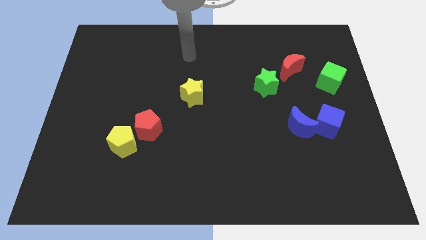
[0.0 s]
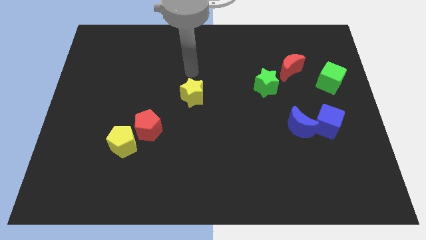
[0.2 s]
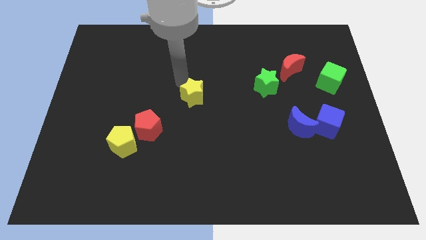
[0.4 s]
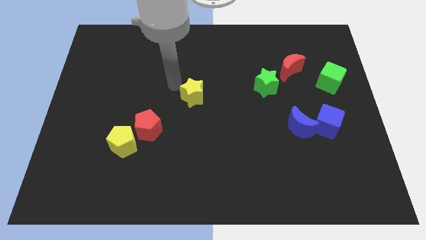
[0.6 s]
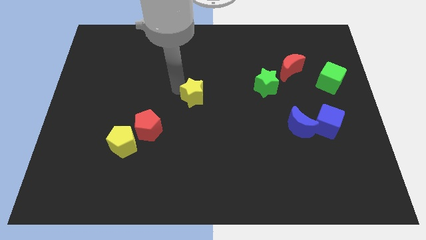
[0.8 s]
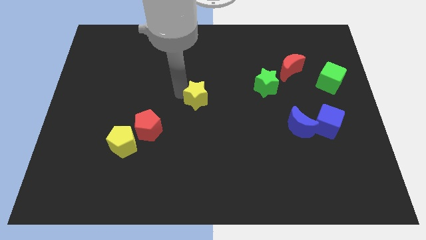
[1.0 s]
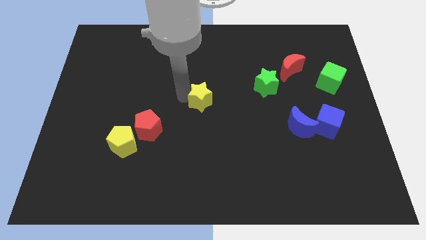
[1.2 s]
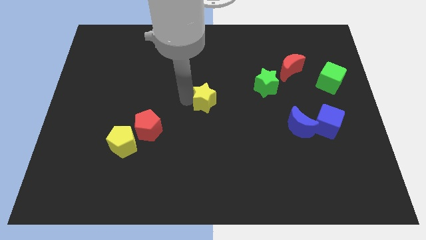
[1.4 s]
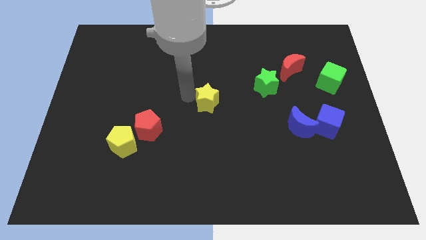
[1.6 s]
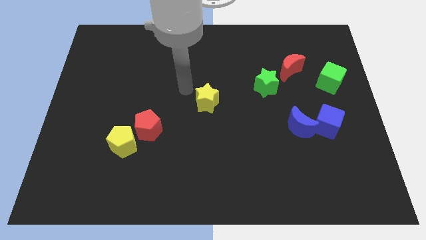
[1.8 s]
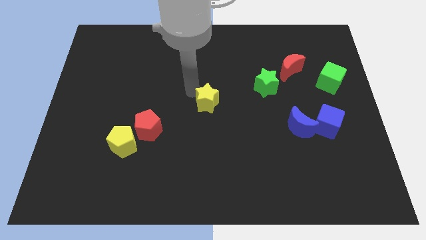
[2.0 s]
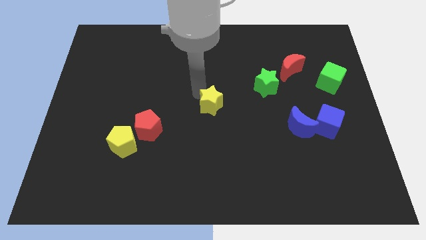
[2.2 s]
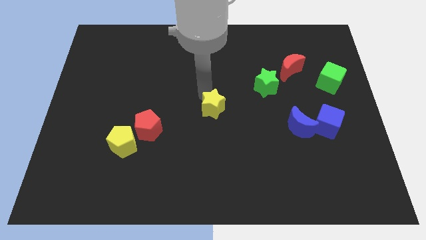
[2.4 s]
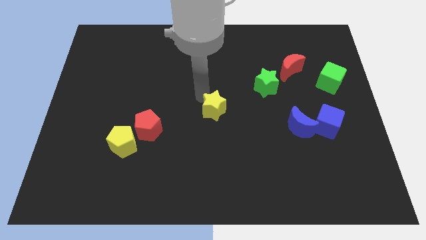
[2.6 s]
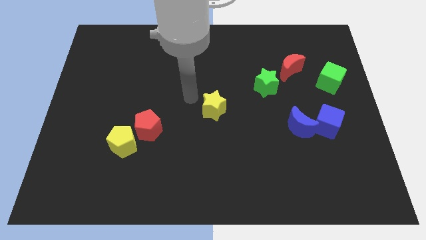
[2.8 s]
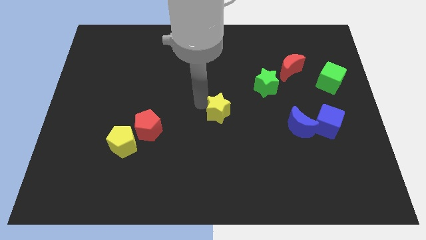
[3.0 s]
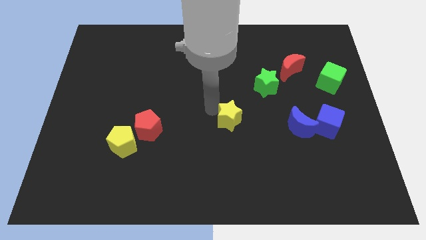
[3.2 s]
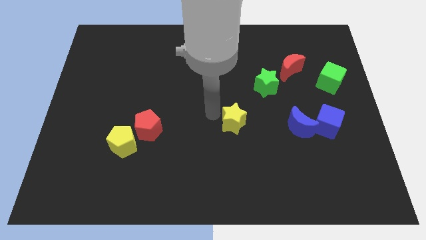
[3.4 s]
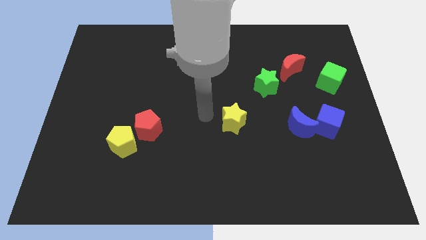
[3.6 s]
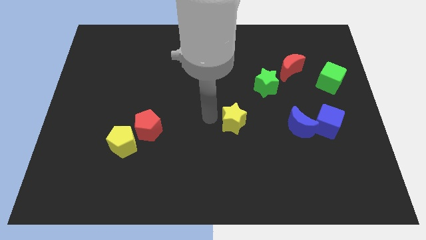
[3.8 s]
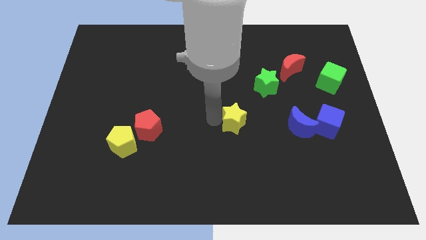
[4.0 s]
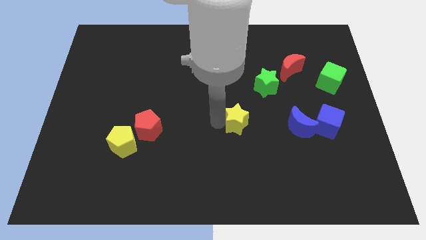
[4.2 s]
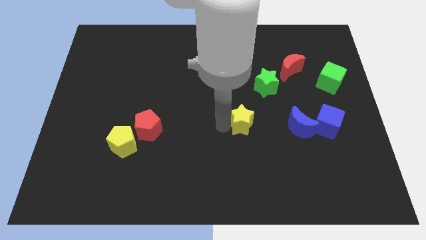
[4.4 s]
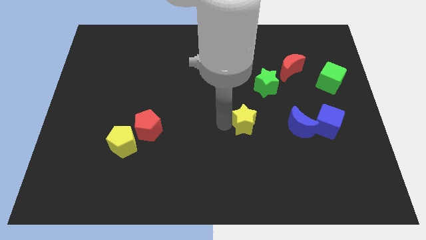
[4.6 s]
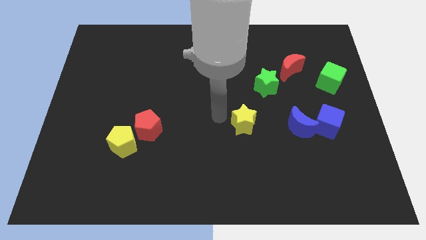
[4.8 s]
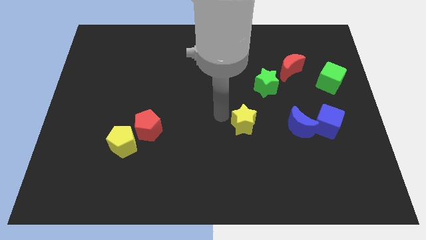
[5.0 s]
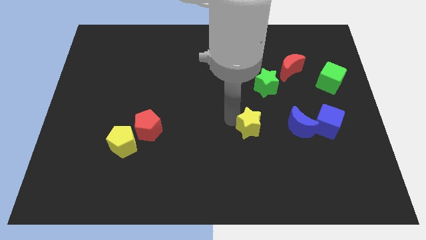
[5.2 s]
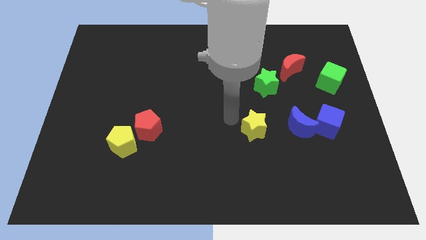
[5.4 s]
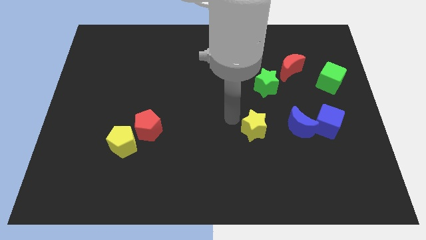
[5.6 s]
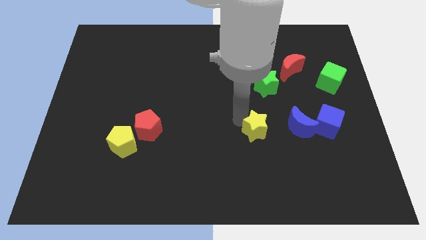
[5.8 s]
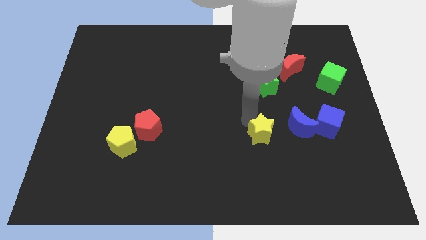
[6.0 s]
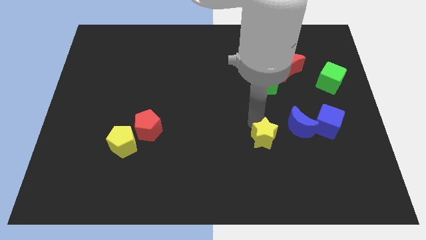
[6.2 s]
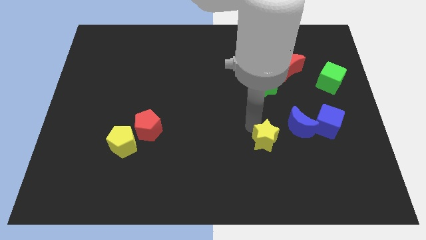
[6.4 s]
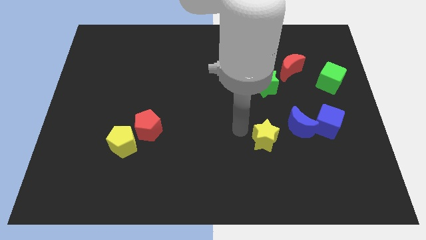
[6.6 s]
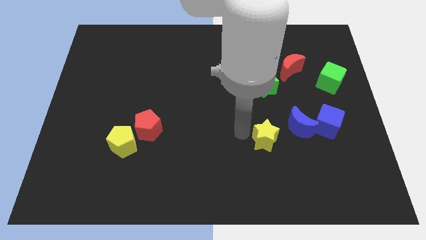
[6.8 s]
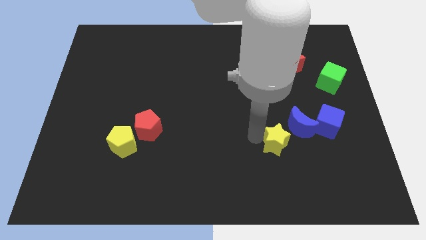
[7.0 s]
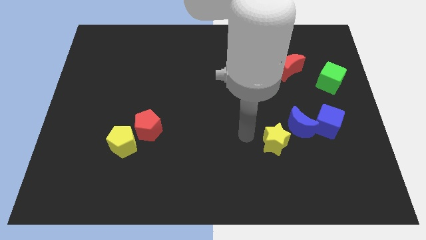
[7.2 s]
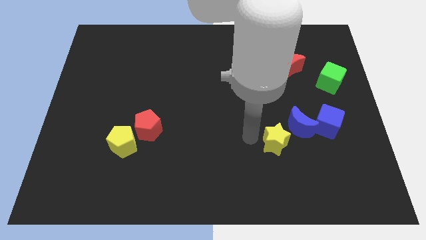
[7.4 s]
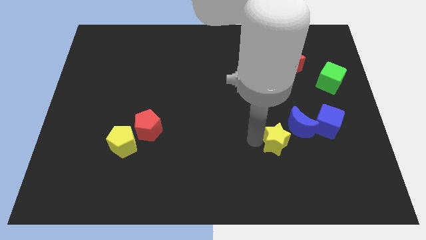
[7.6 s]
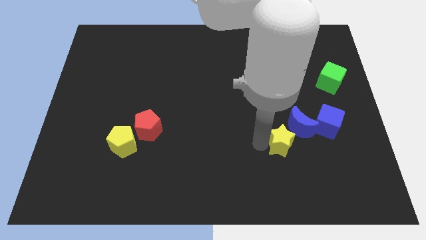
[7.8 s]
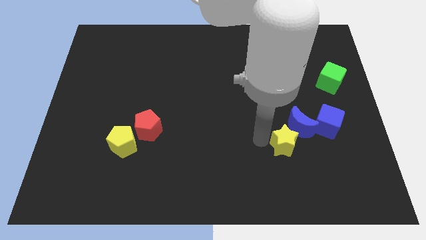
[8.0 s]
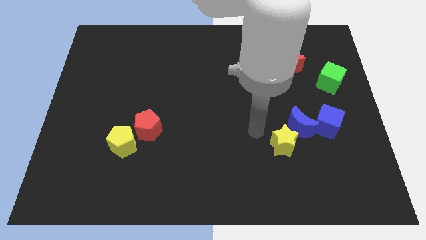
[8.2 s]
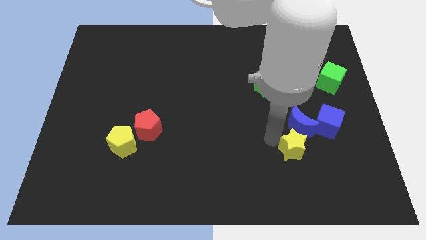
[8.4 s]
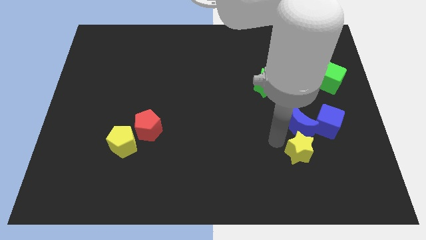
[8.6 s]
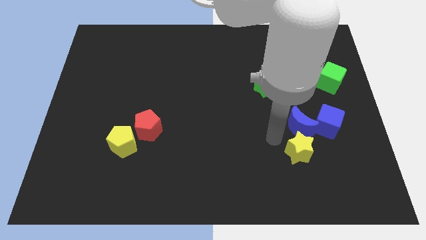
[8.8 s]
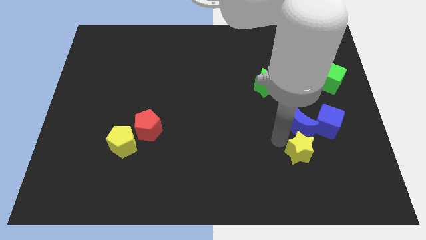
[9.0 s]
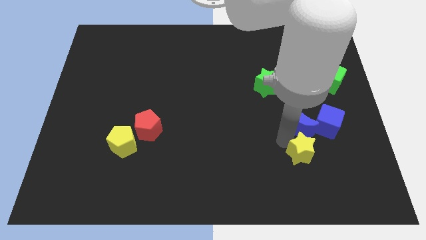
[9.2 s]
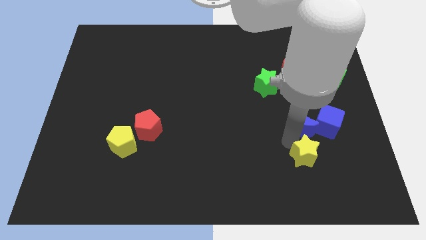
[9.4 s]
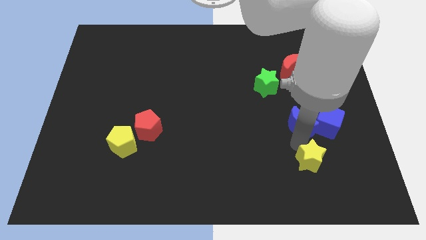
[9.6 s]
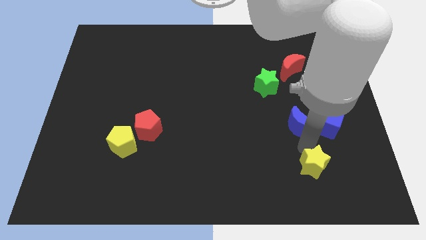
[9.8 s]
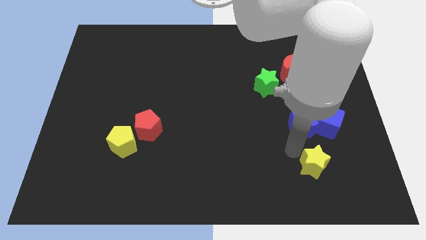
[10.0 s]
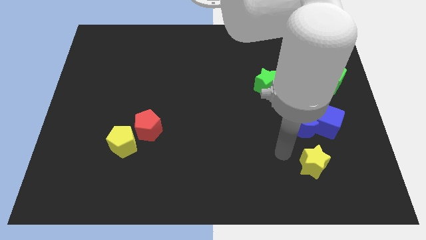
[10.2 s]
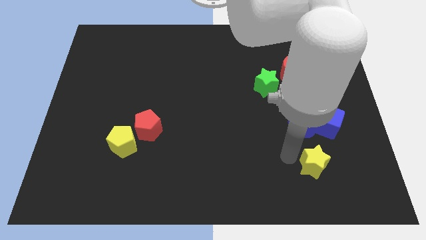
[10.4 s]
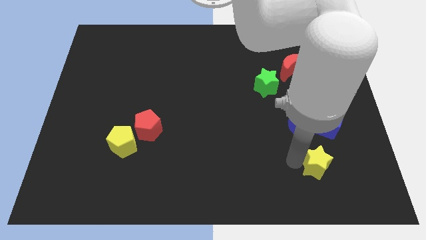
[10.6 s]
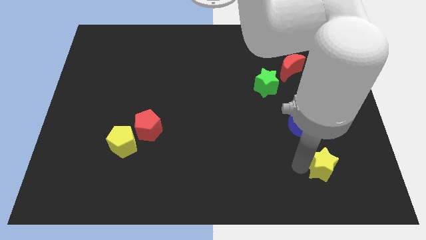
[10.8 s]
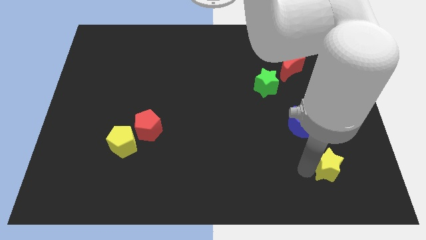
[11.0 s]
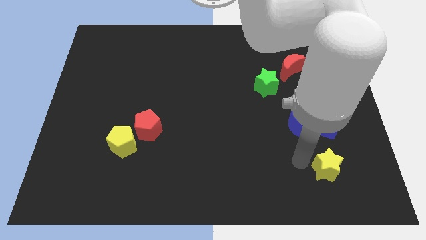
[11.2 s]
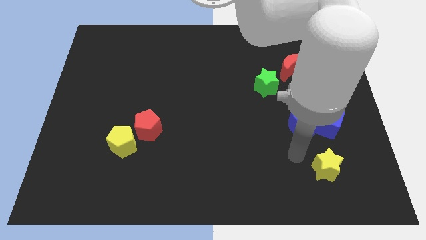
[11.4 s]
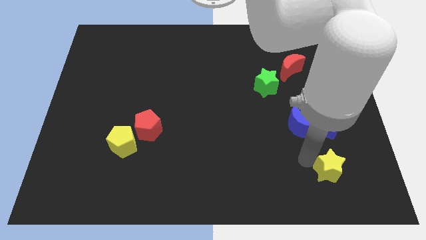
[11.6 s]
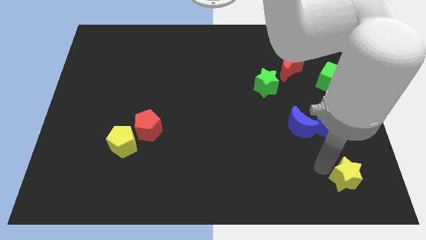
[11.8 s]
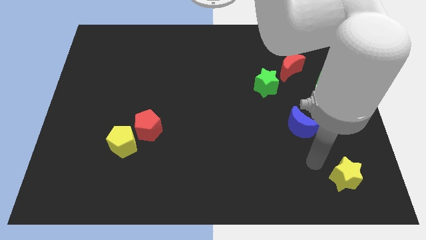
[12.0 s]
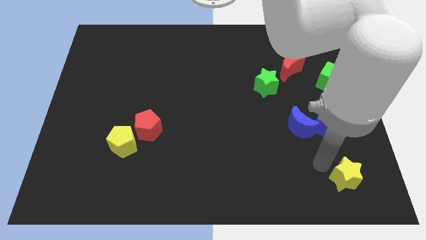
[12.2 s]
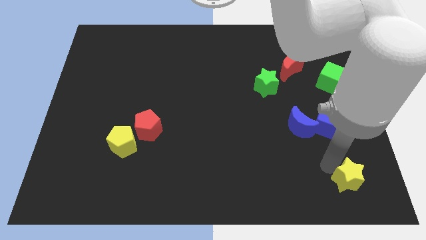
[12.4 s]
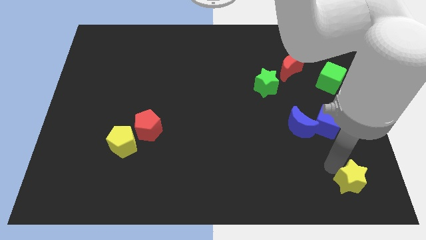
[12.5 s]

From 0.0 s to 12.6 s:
push the yellow star to the bottom right

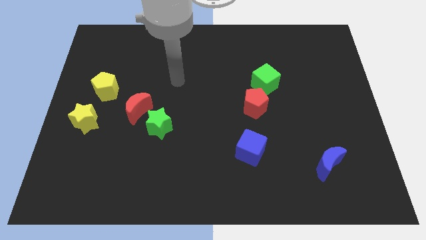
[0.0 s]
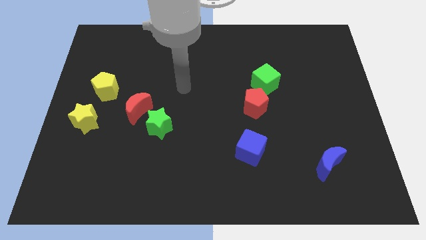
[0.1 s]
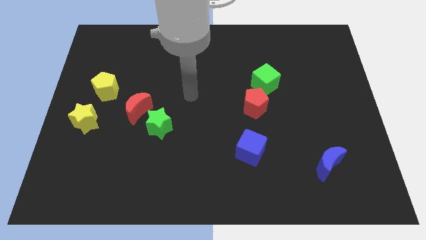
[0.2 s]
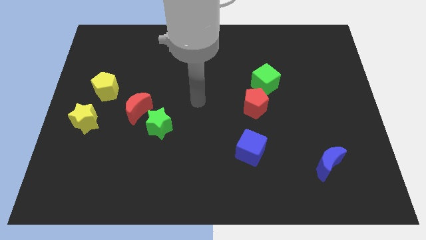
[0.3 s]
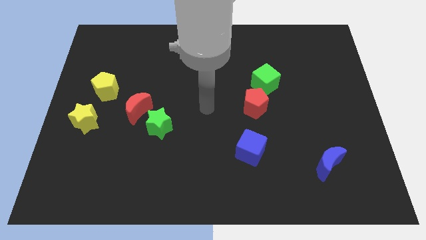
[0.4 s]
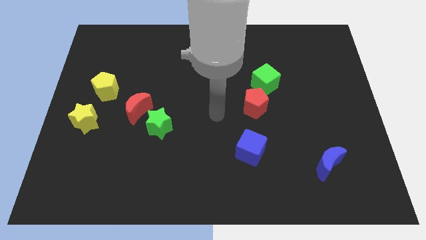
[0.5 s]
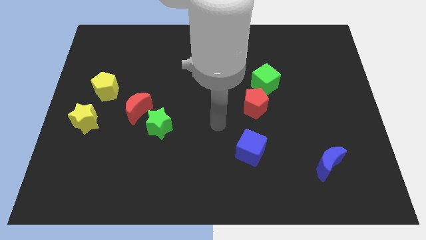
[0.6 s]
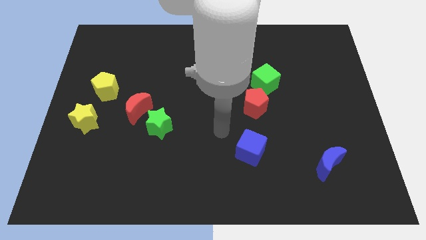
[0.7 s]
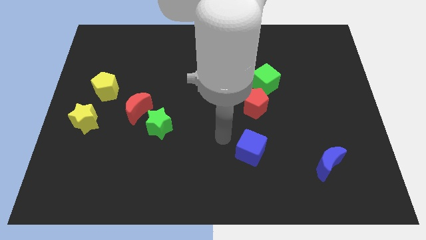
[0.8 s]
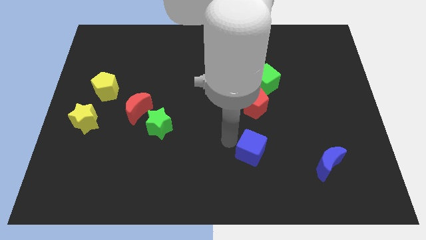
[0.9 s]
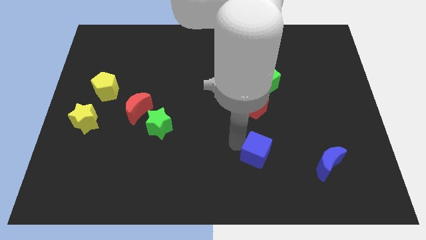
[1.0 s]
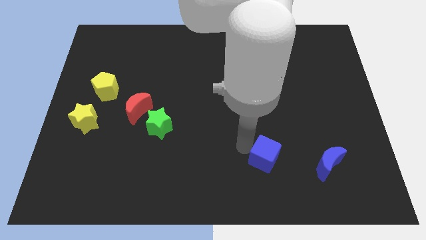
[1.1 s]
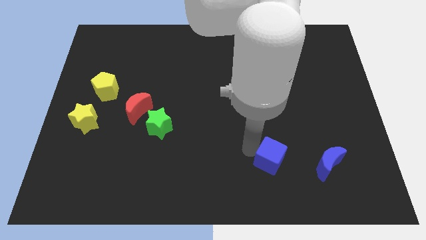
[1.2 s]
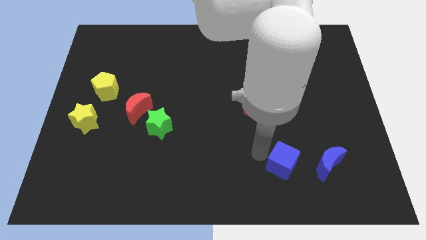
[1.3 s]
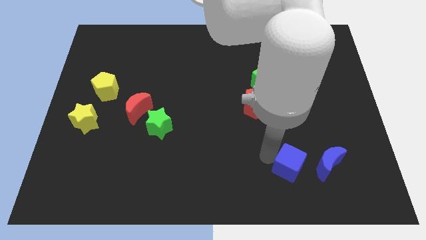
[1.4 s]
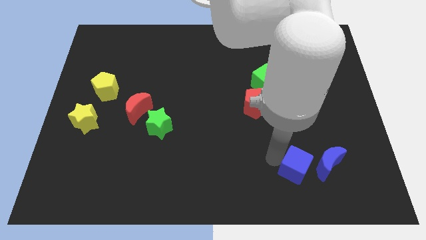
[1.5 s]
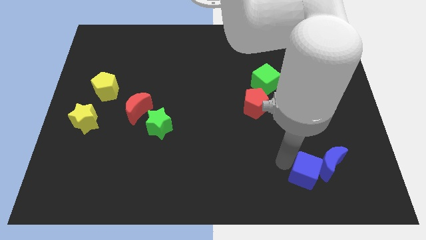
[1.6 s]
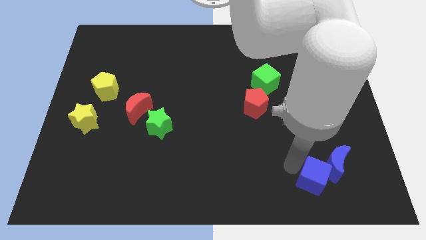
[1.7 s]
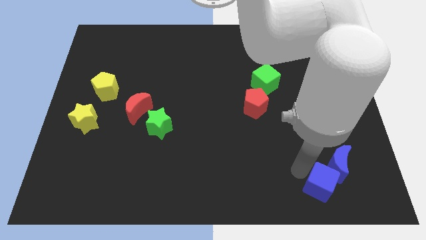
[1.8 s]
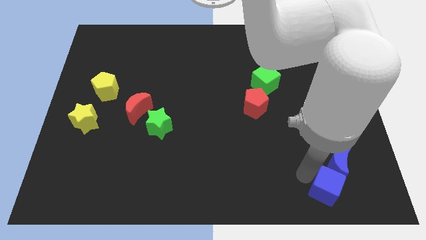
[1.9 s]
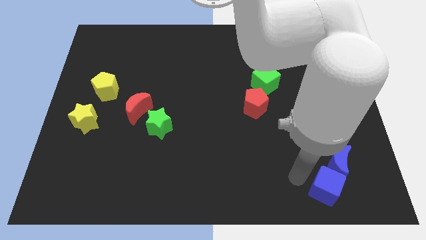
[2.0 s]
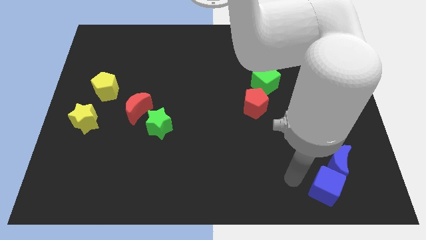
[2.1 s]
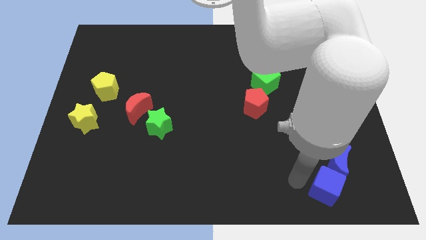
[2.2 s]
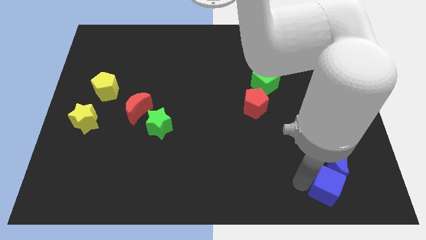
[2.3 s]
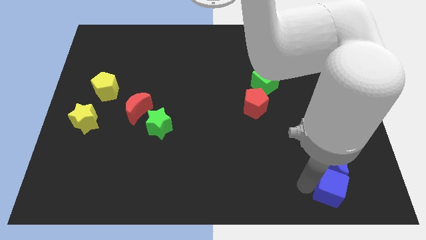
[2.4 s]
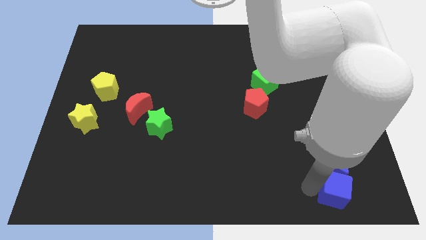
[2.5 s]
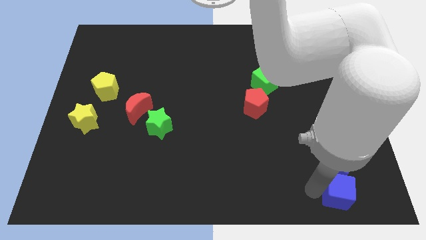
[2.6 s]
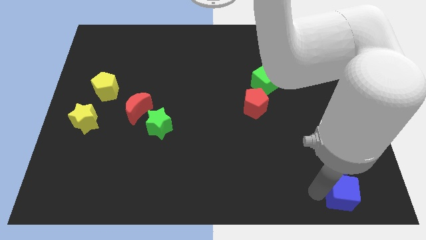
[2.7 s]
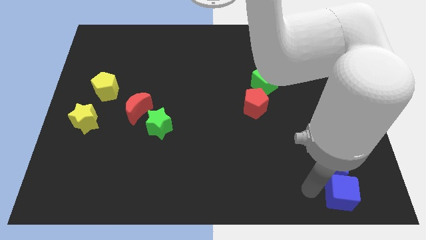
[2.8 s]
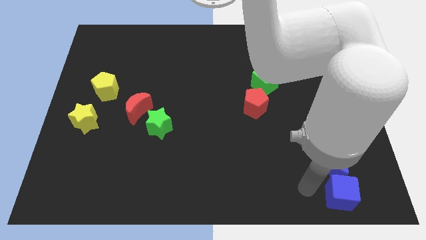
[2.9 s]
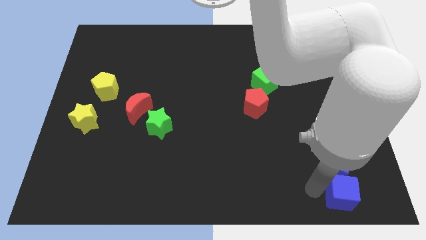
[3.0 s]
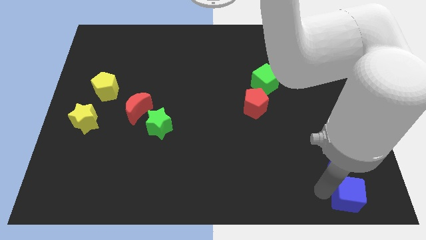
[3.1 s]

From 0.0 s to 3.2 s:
move the blue cube to the bottom right of the board
